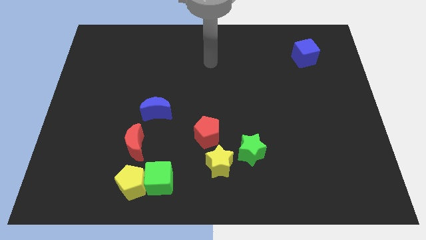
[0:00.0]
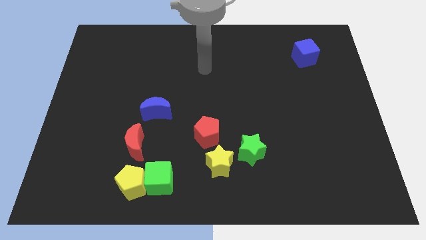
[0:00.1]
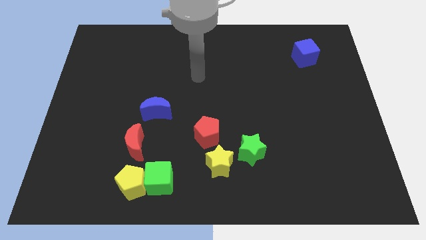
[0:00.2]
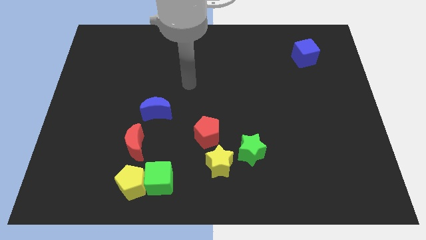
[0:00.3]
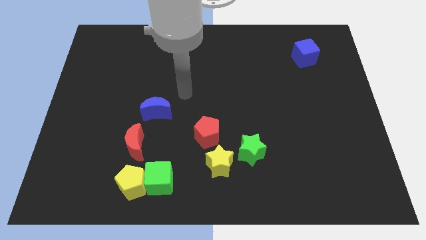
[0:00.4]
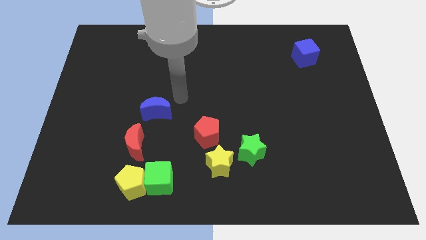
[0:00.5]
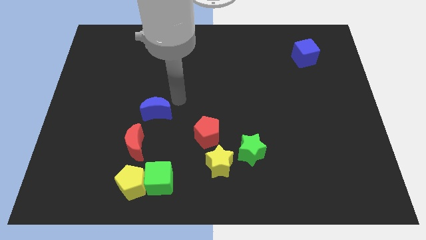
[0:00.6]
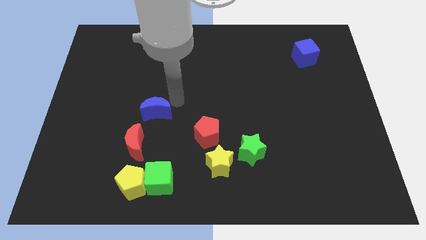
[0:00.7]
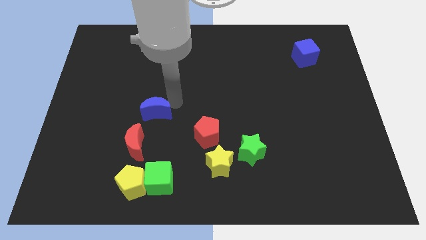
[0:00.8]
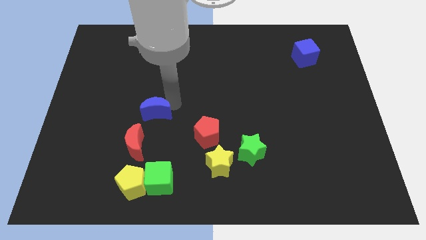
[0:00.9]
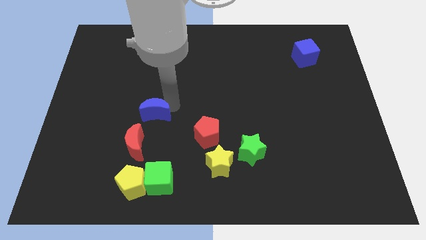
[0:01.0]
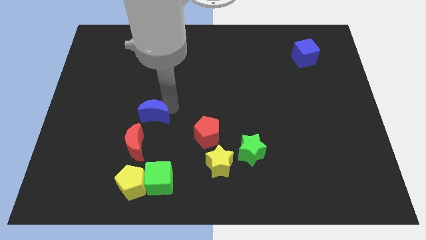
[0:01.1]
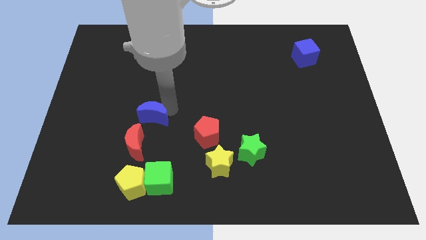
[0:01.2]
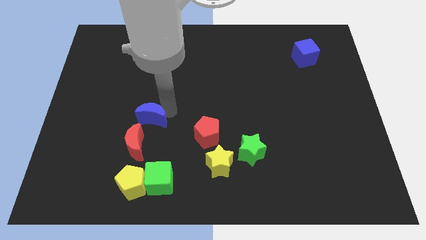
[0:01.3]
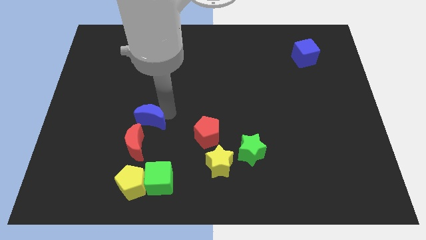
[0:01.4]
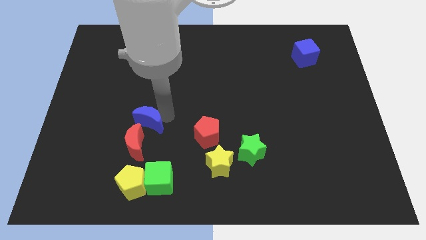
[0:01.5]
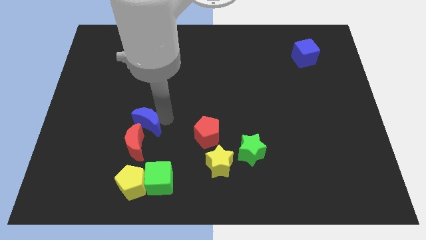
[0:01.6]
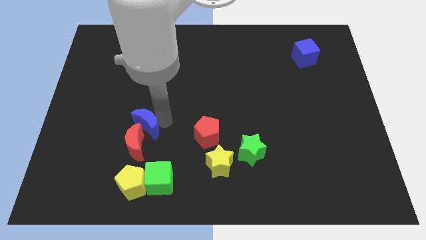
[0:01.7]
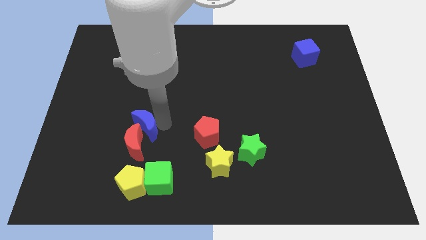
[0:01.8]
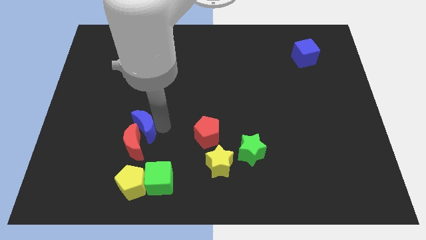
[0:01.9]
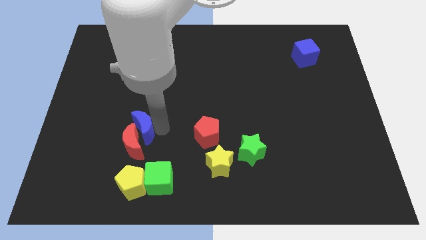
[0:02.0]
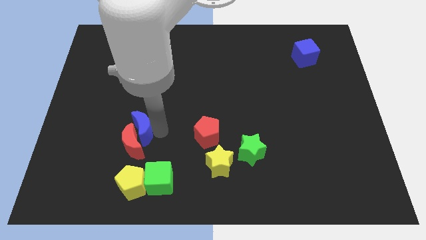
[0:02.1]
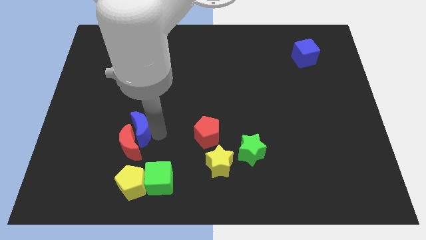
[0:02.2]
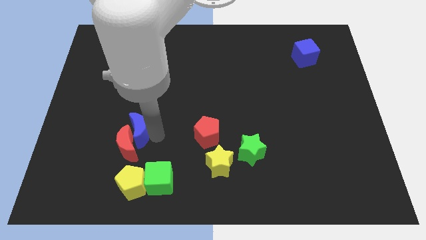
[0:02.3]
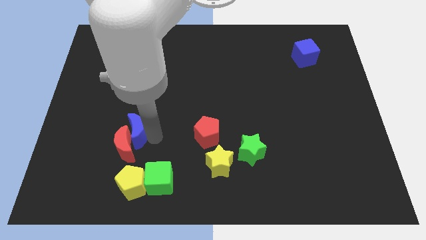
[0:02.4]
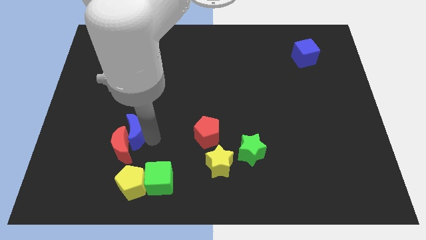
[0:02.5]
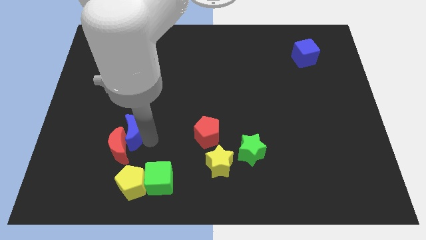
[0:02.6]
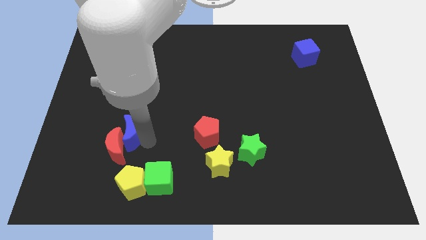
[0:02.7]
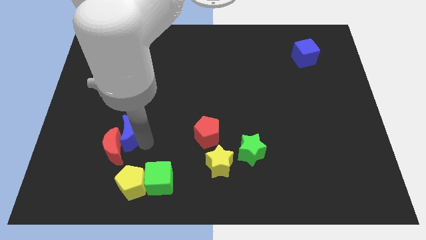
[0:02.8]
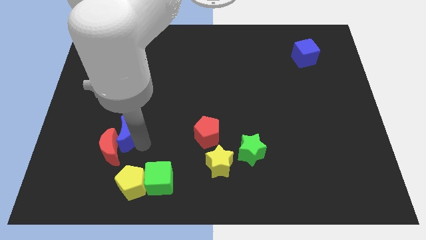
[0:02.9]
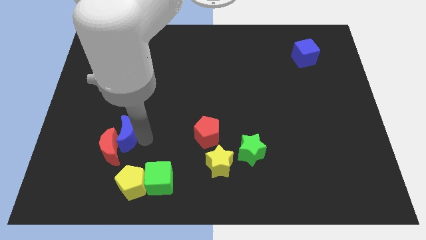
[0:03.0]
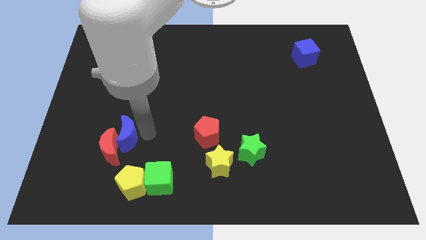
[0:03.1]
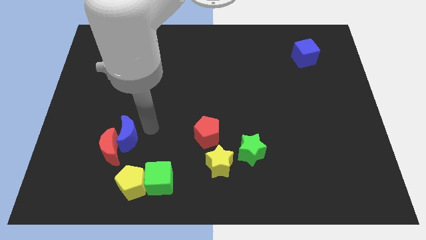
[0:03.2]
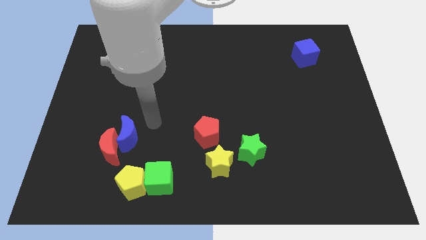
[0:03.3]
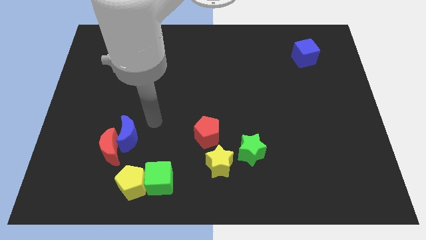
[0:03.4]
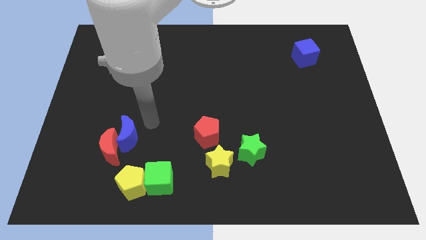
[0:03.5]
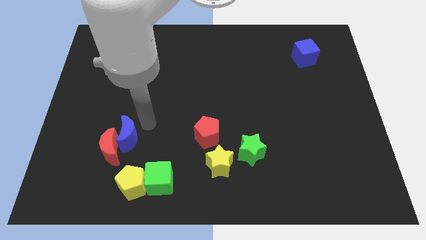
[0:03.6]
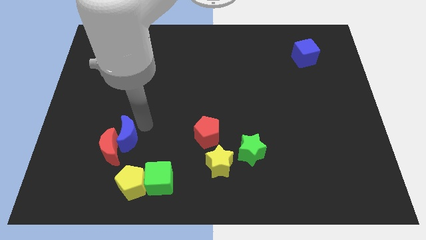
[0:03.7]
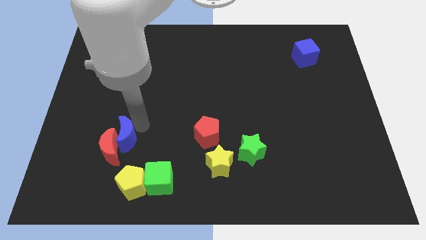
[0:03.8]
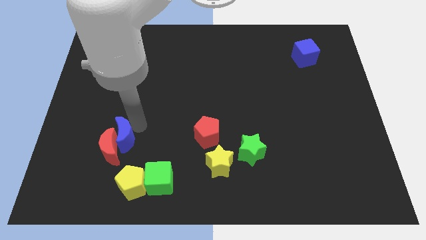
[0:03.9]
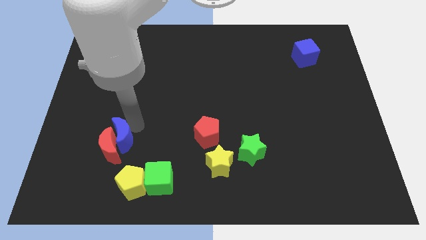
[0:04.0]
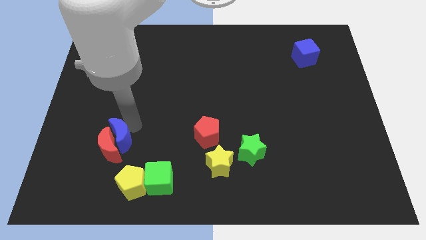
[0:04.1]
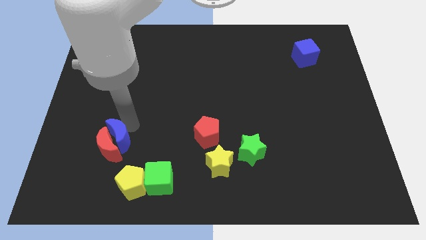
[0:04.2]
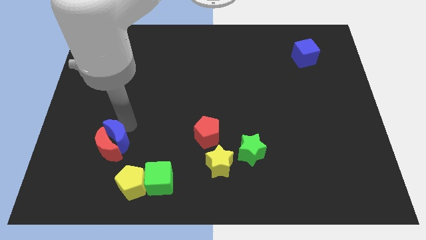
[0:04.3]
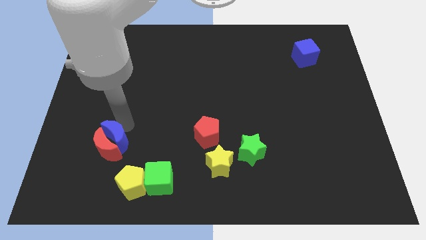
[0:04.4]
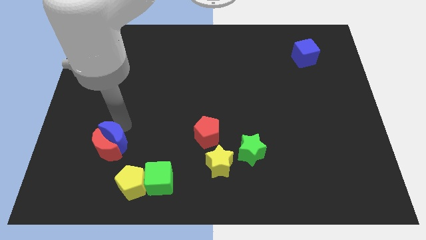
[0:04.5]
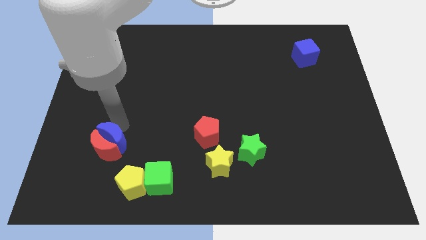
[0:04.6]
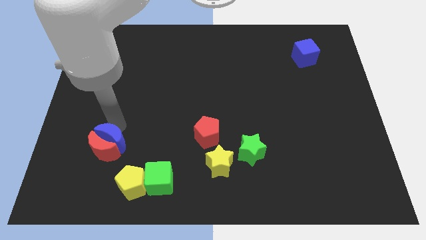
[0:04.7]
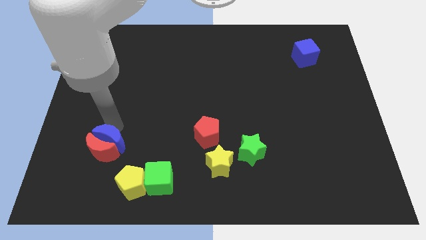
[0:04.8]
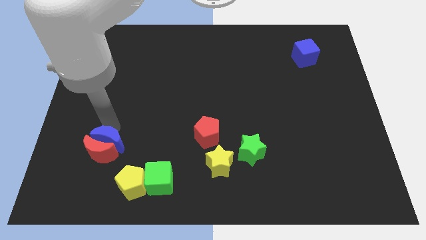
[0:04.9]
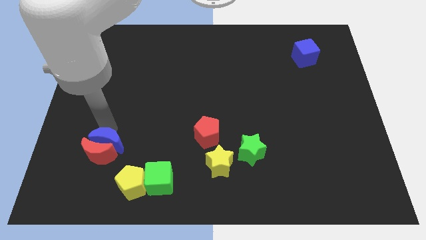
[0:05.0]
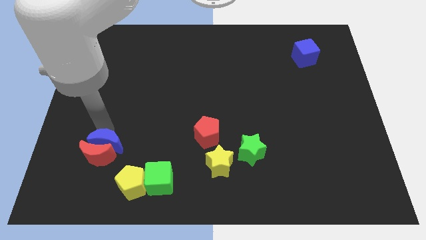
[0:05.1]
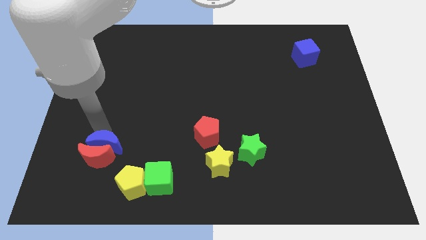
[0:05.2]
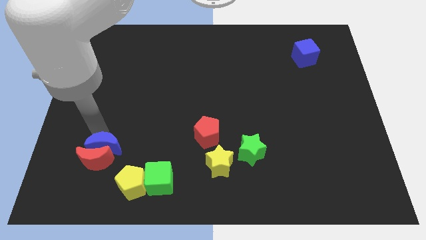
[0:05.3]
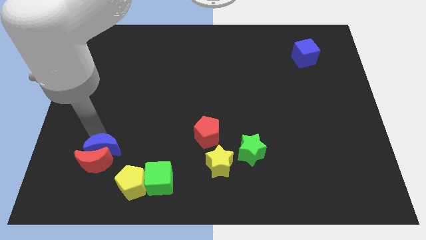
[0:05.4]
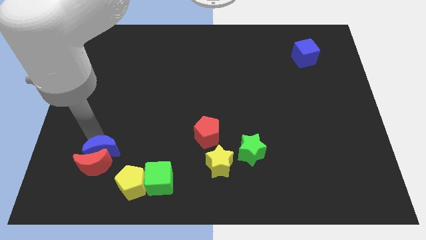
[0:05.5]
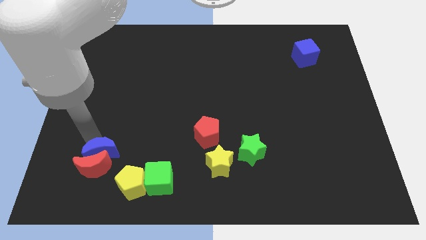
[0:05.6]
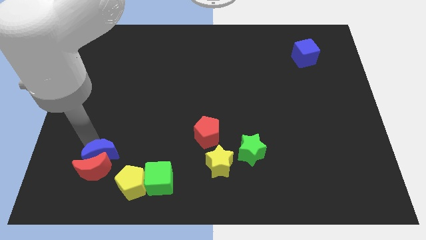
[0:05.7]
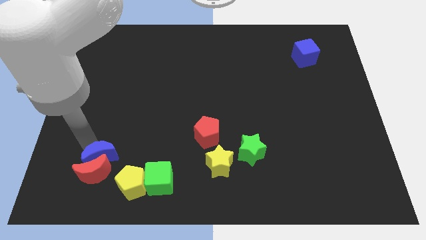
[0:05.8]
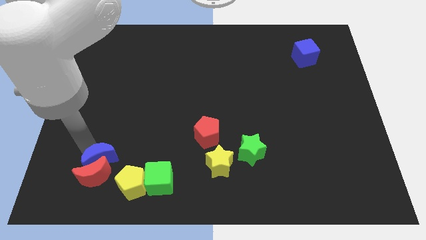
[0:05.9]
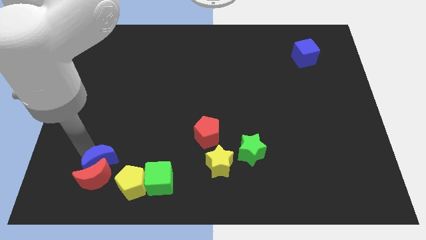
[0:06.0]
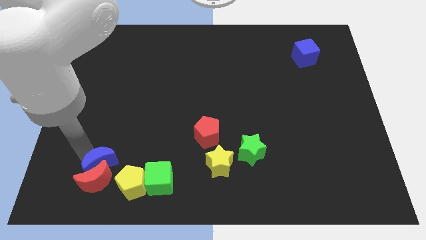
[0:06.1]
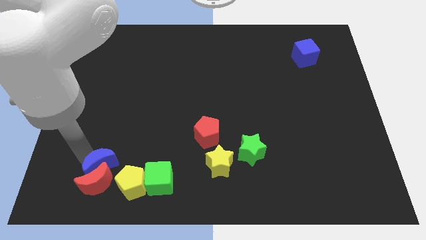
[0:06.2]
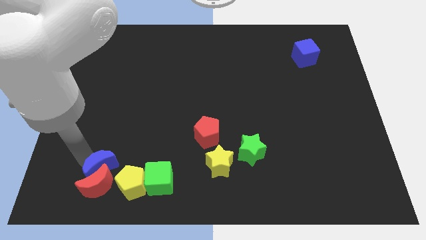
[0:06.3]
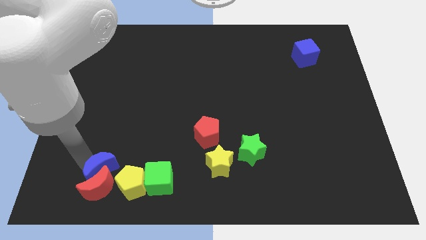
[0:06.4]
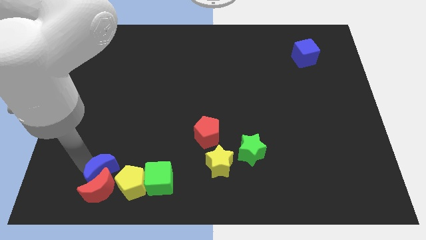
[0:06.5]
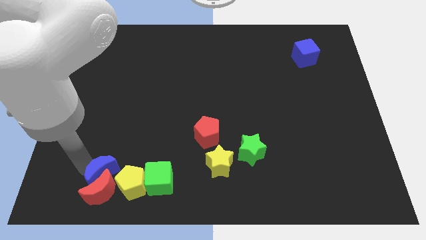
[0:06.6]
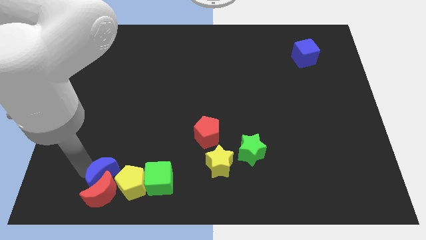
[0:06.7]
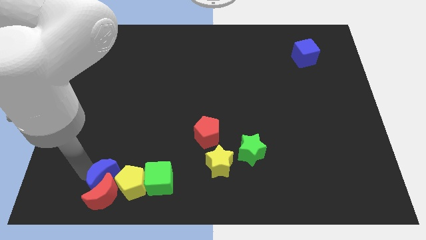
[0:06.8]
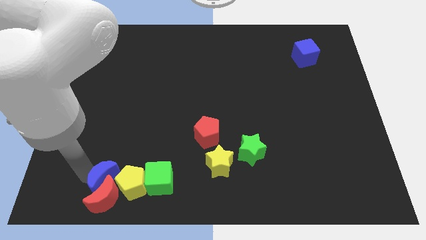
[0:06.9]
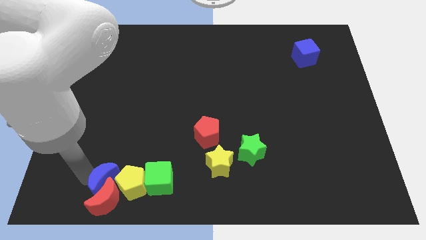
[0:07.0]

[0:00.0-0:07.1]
push the blue moon next to the yellow pentagon

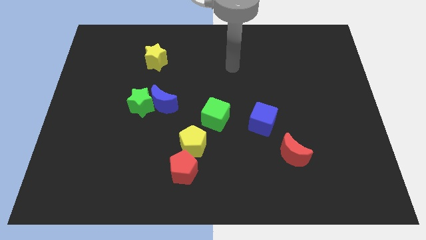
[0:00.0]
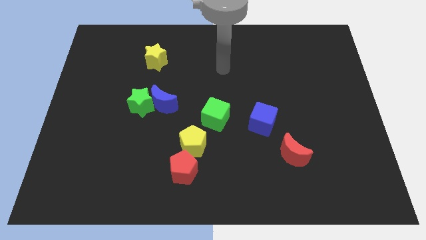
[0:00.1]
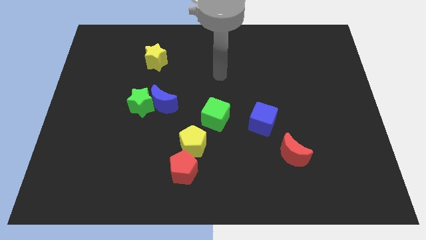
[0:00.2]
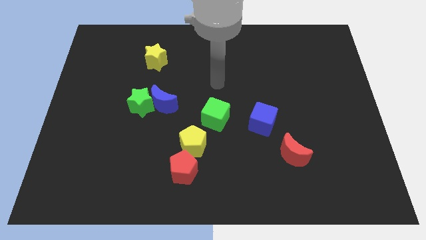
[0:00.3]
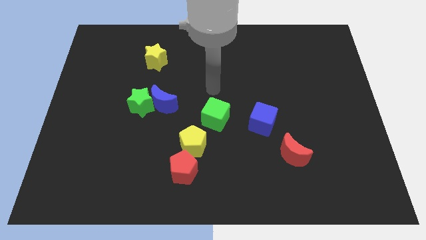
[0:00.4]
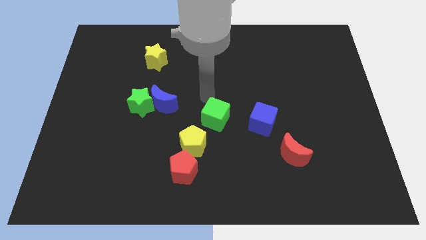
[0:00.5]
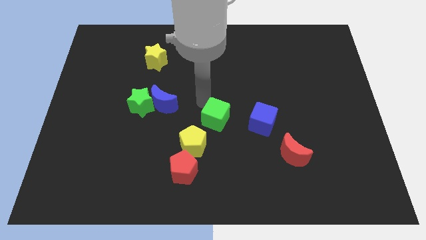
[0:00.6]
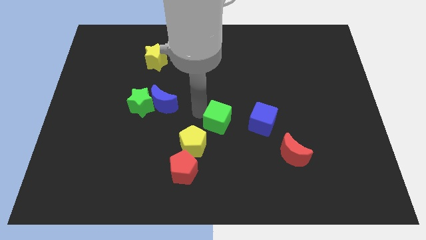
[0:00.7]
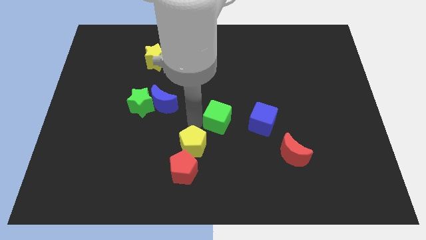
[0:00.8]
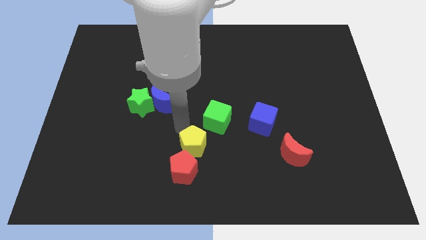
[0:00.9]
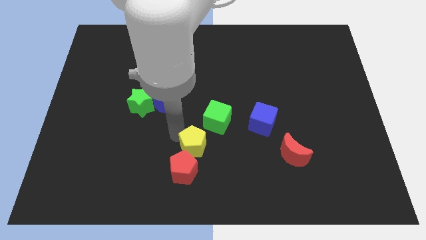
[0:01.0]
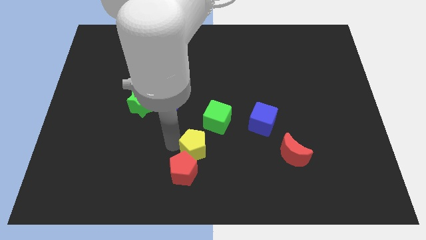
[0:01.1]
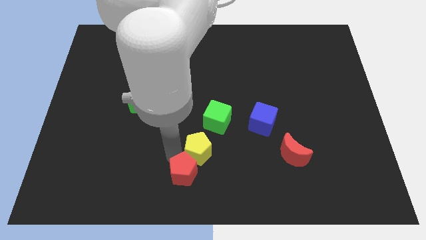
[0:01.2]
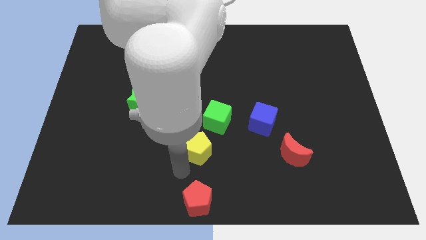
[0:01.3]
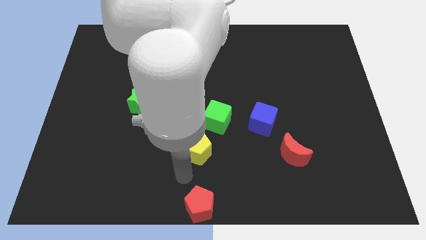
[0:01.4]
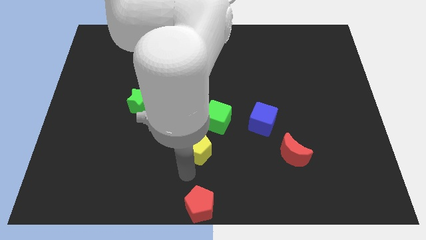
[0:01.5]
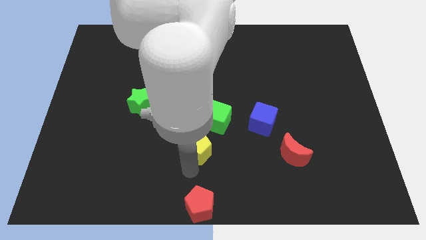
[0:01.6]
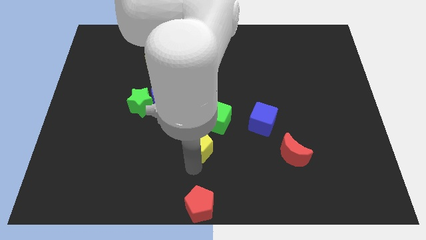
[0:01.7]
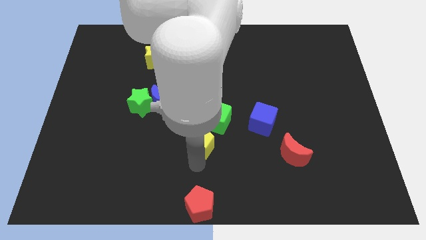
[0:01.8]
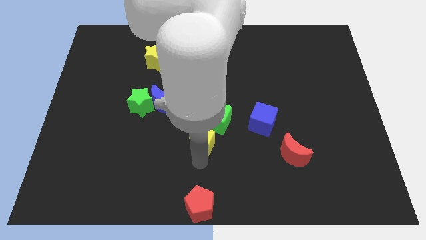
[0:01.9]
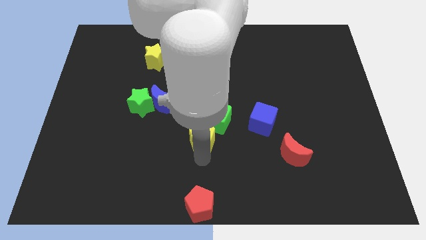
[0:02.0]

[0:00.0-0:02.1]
push the yellow pentagon next to the green cube
